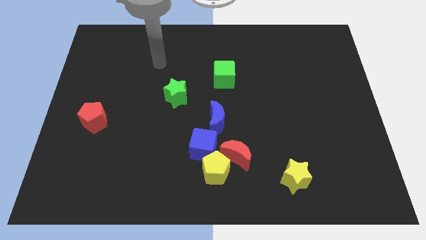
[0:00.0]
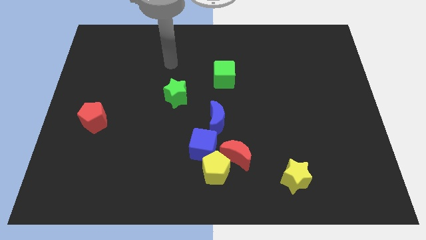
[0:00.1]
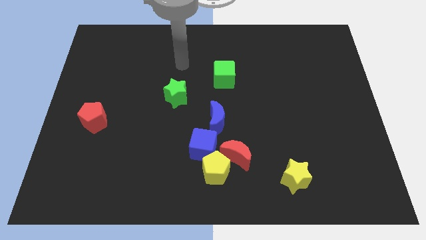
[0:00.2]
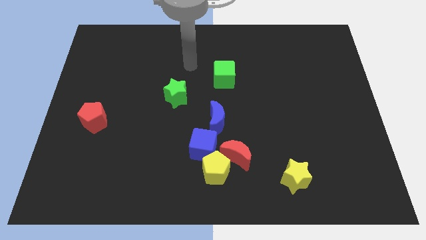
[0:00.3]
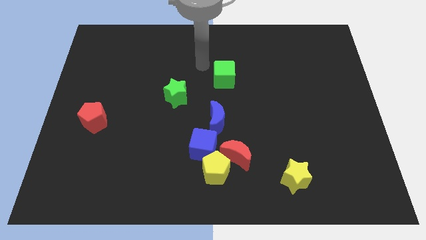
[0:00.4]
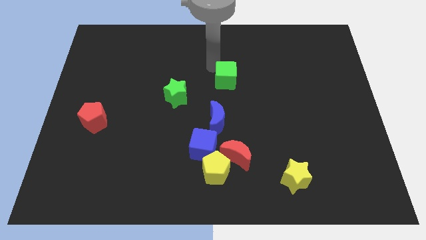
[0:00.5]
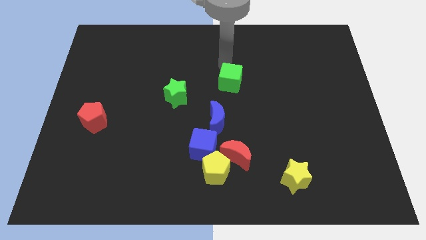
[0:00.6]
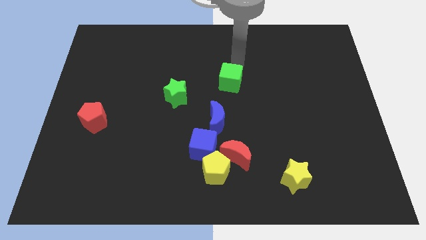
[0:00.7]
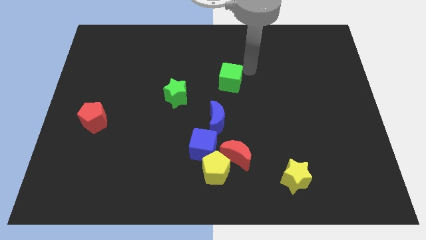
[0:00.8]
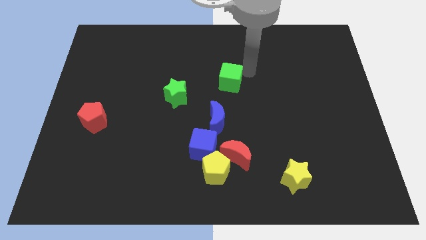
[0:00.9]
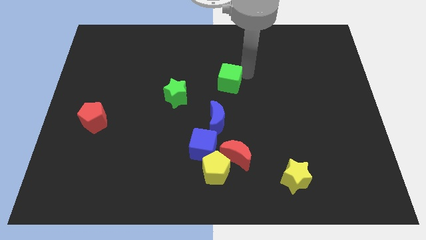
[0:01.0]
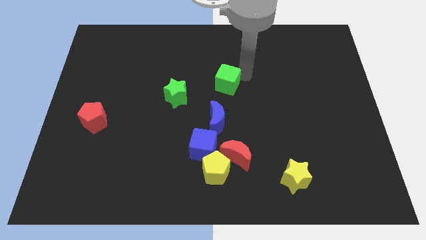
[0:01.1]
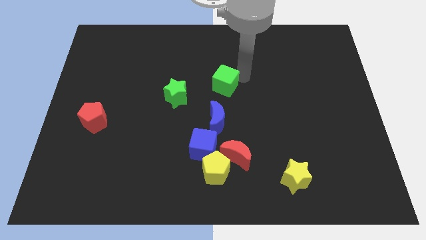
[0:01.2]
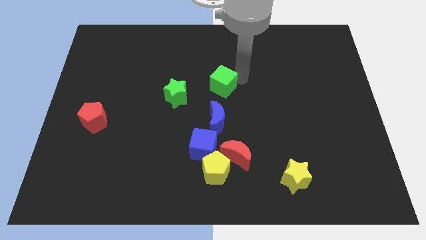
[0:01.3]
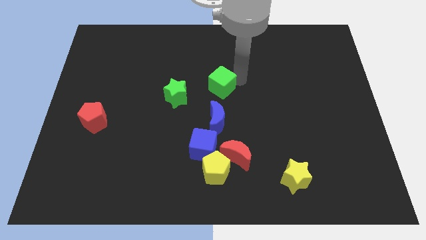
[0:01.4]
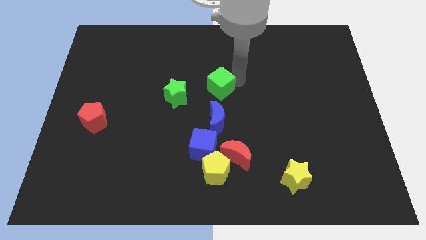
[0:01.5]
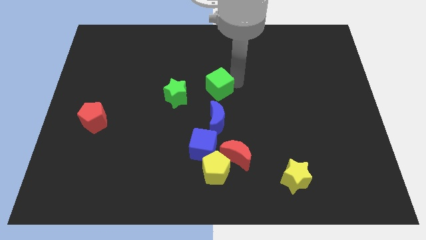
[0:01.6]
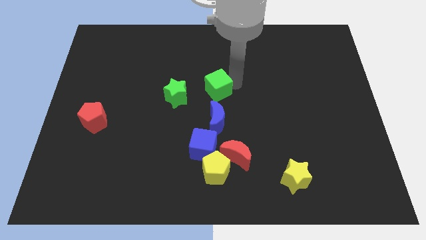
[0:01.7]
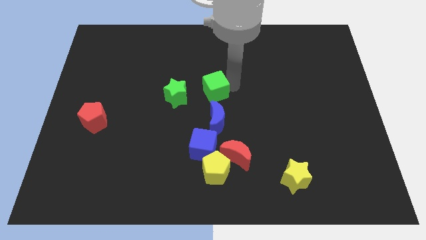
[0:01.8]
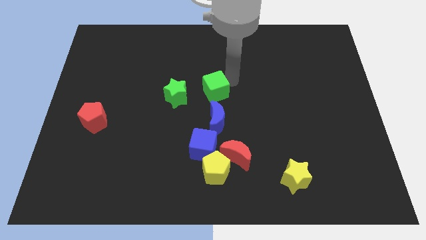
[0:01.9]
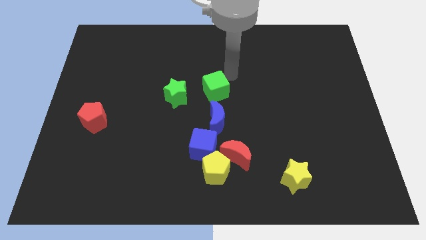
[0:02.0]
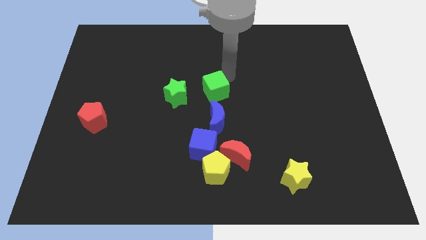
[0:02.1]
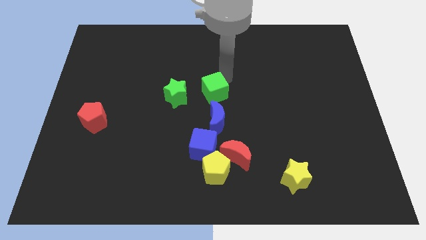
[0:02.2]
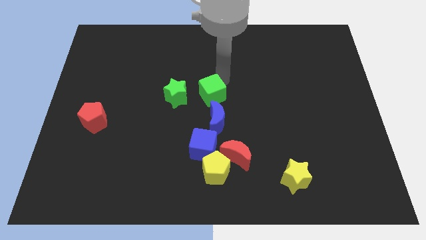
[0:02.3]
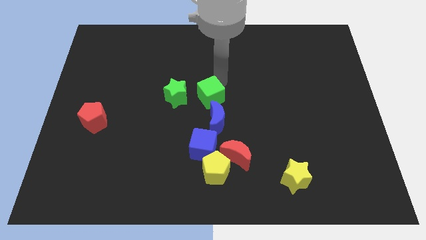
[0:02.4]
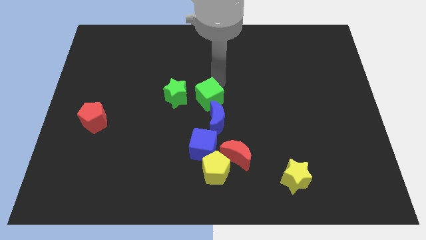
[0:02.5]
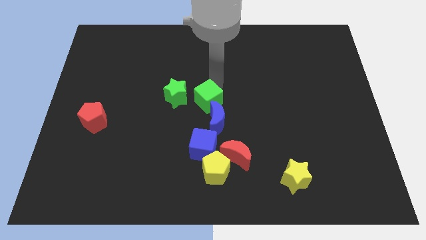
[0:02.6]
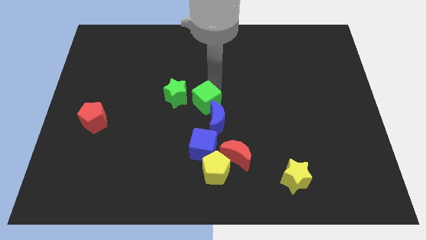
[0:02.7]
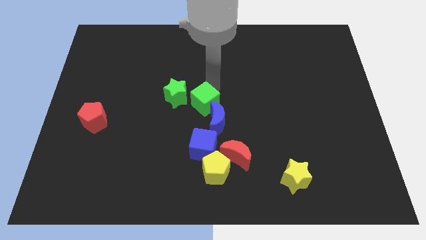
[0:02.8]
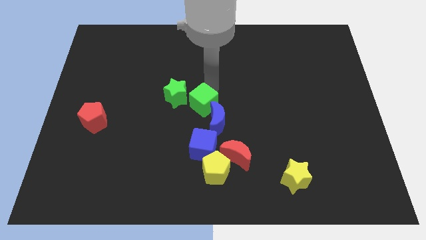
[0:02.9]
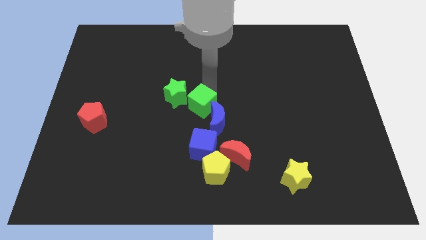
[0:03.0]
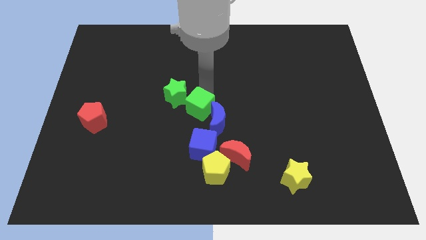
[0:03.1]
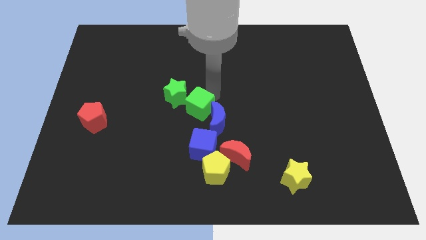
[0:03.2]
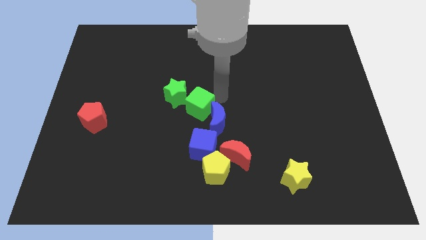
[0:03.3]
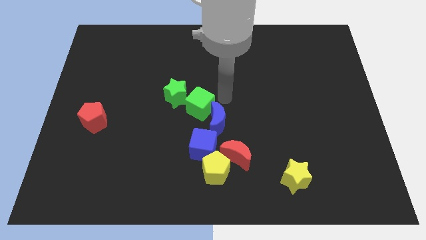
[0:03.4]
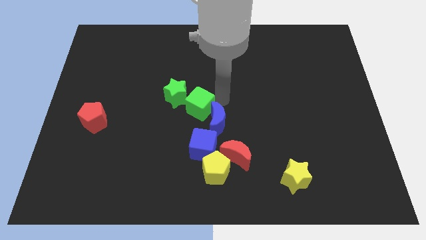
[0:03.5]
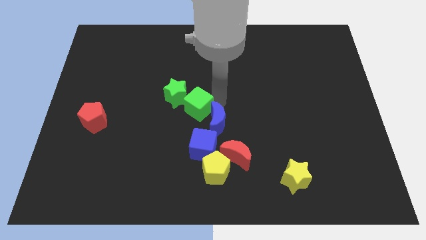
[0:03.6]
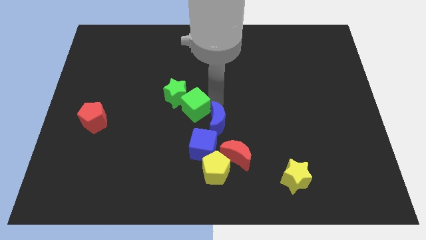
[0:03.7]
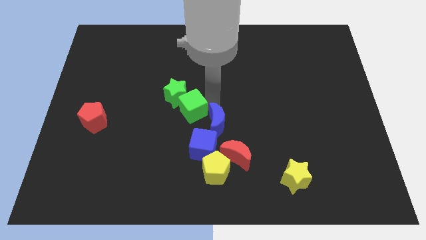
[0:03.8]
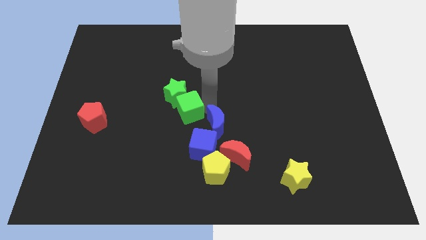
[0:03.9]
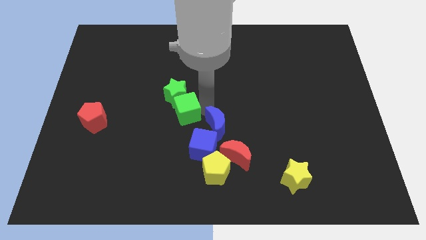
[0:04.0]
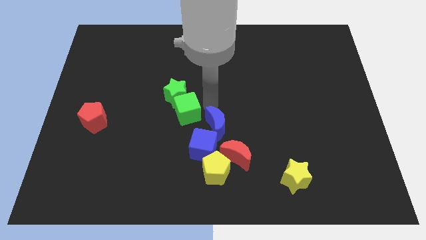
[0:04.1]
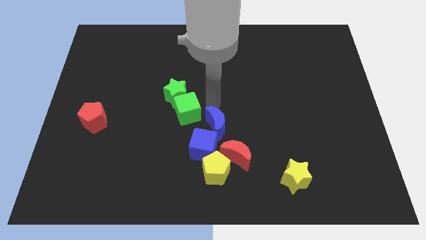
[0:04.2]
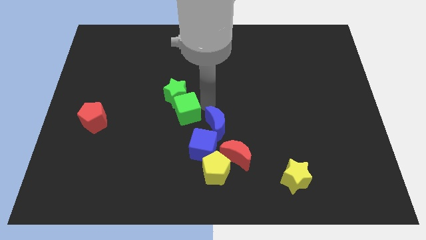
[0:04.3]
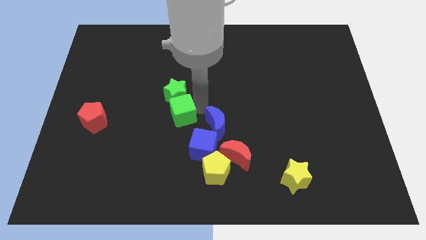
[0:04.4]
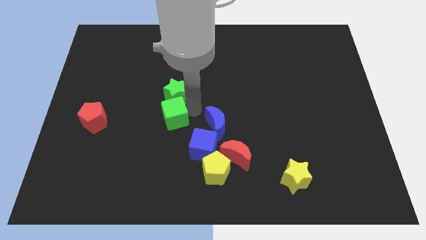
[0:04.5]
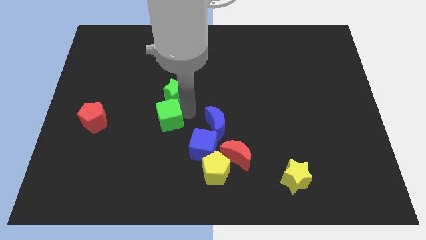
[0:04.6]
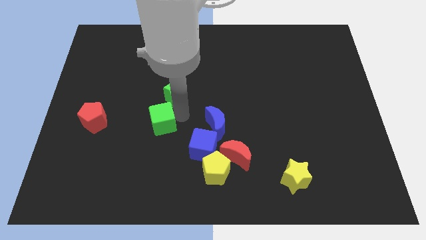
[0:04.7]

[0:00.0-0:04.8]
put the green cube to the right side of the red pentagon

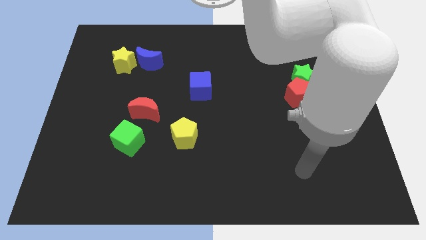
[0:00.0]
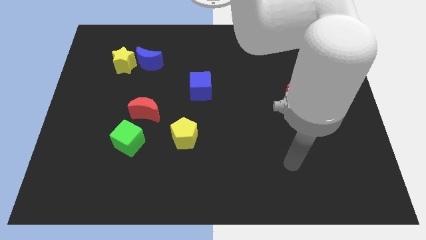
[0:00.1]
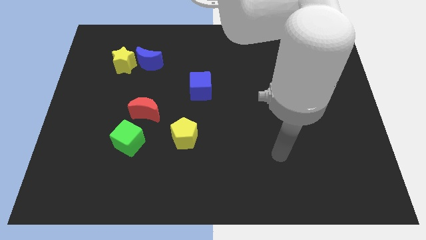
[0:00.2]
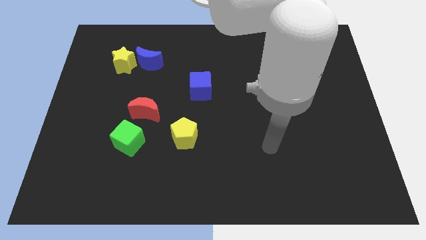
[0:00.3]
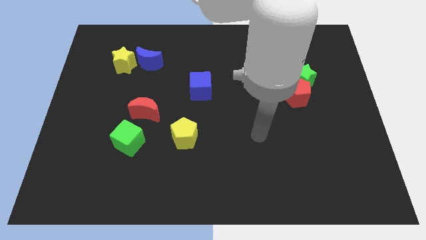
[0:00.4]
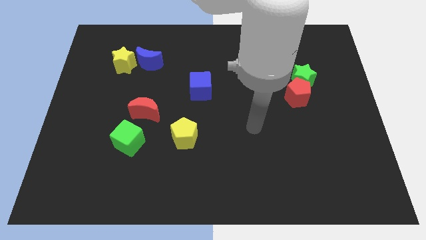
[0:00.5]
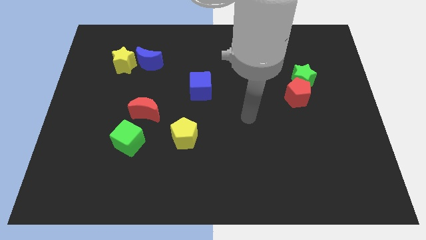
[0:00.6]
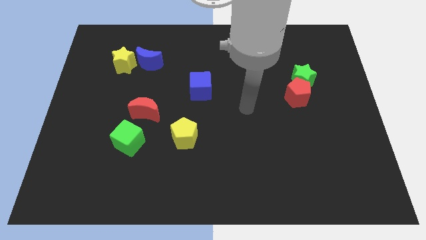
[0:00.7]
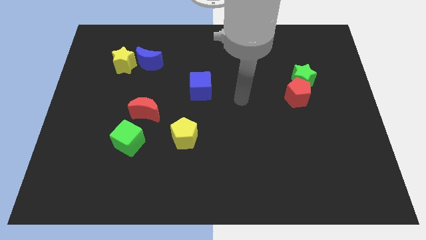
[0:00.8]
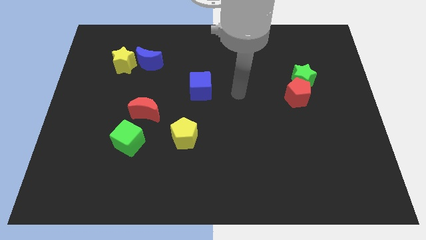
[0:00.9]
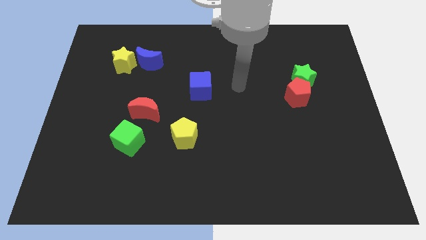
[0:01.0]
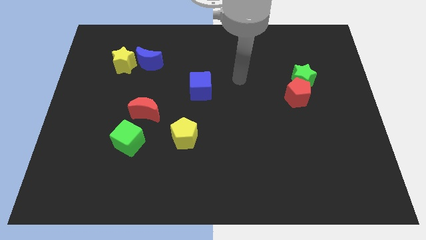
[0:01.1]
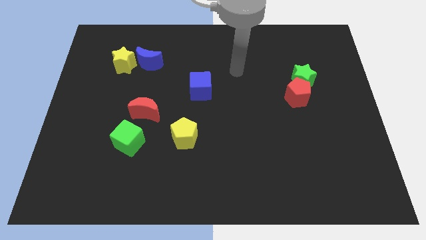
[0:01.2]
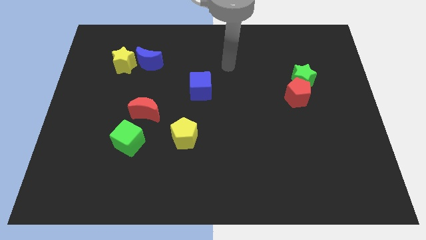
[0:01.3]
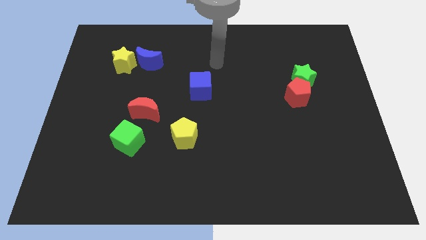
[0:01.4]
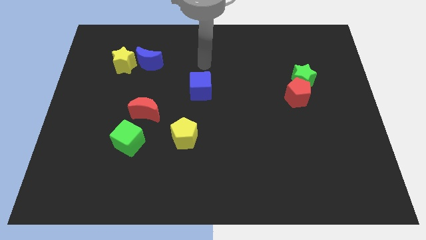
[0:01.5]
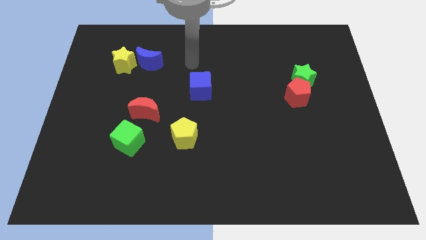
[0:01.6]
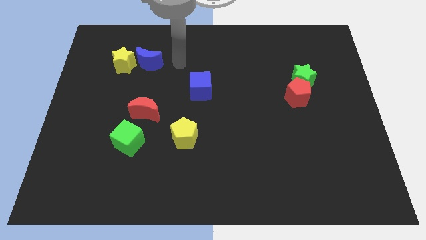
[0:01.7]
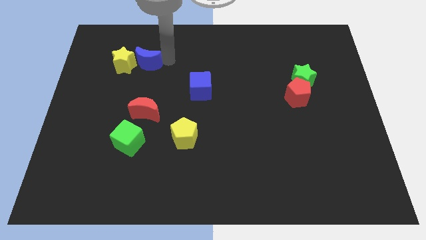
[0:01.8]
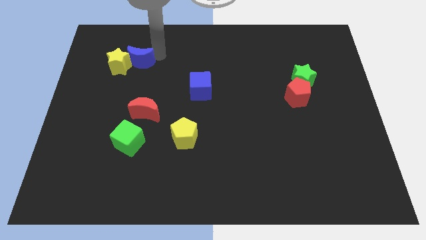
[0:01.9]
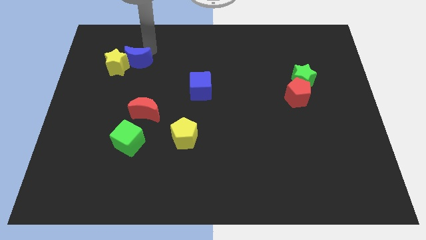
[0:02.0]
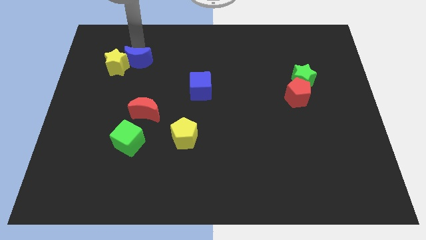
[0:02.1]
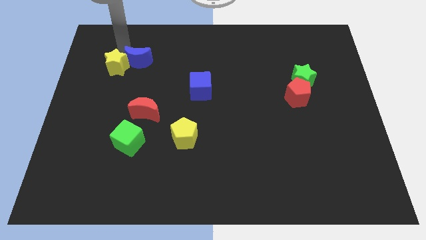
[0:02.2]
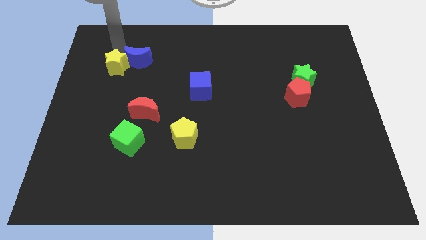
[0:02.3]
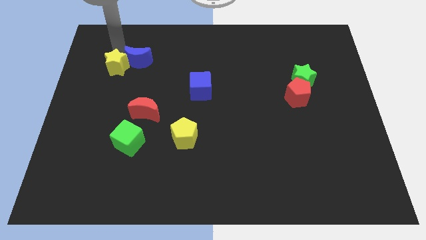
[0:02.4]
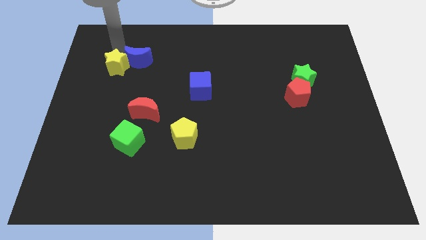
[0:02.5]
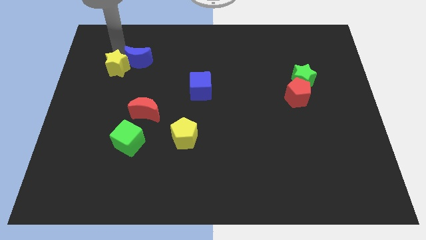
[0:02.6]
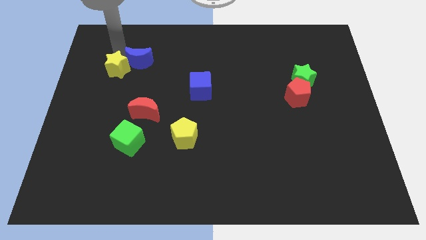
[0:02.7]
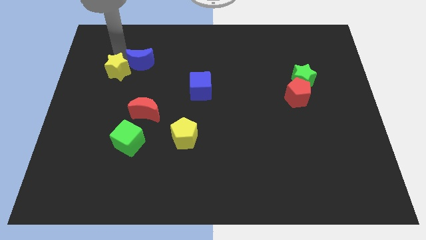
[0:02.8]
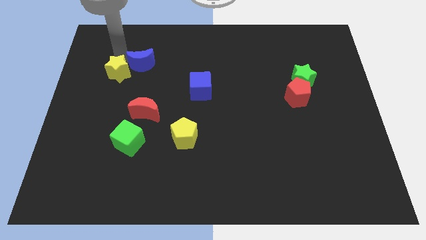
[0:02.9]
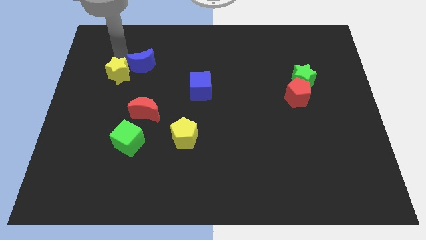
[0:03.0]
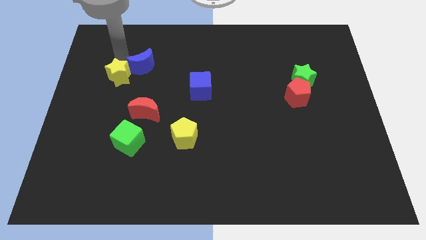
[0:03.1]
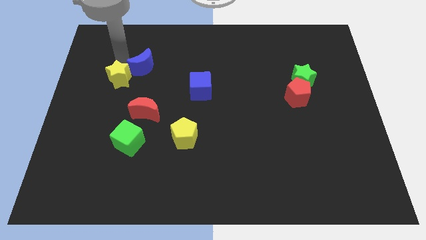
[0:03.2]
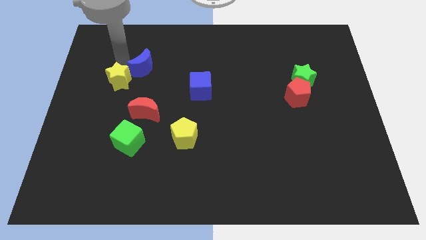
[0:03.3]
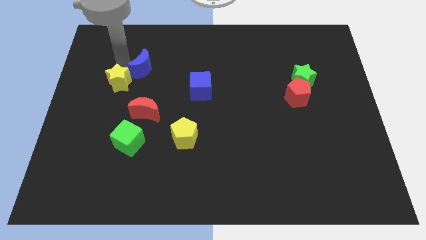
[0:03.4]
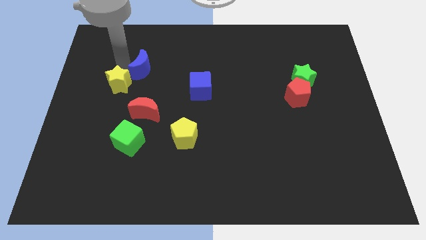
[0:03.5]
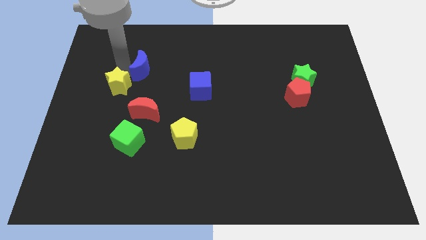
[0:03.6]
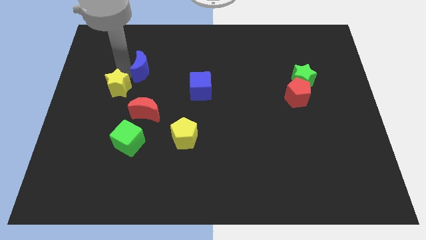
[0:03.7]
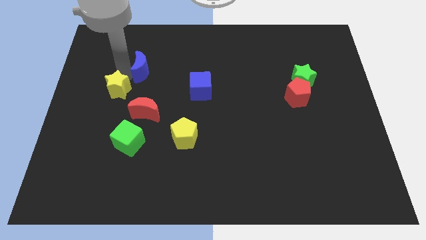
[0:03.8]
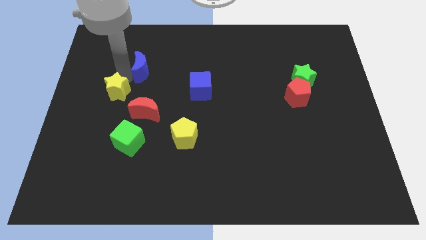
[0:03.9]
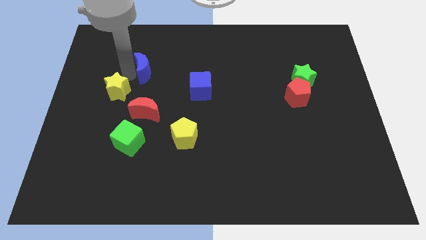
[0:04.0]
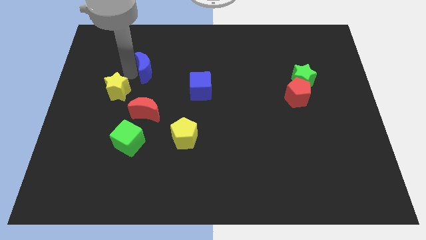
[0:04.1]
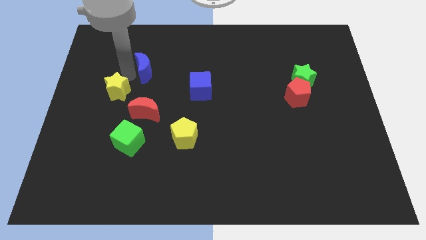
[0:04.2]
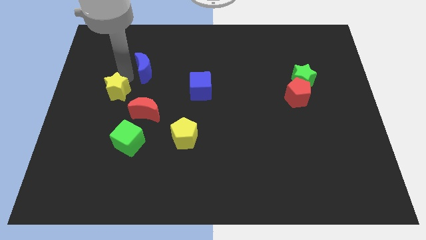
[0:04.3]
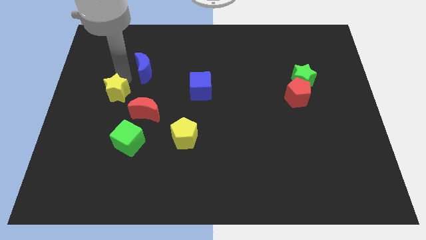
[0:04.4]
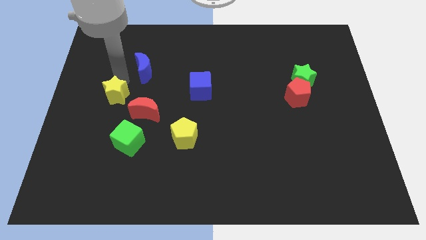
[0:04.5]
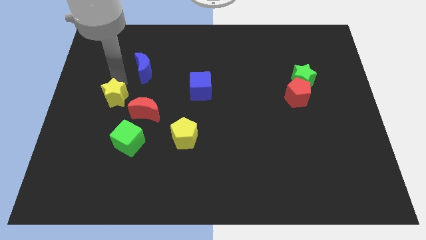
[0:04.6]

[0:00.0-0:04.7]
move the yellow star to the left of the red moon
